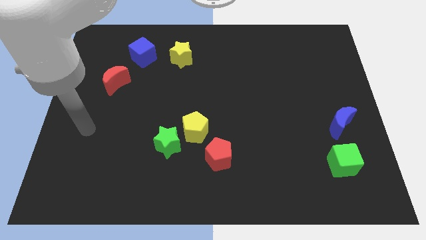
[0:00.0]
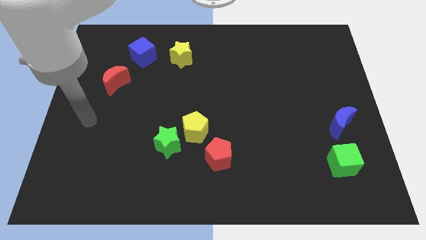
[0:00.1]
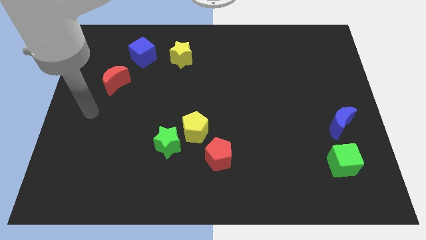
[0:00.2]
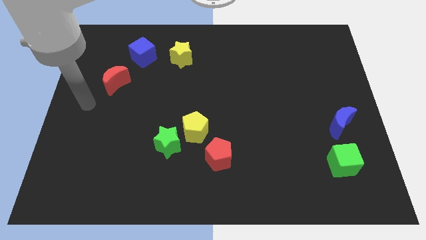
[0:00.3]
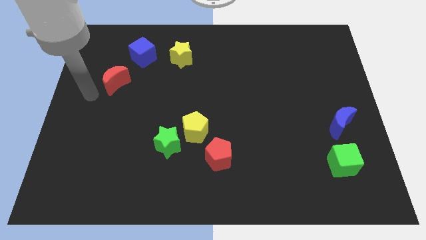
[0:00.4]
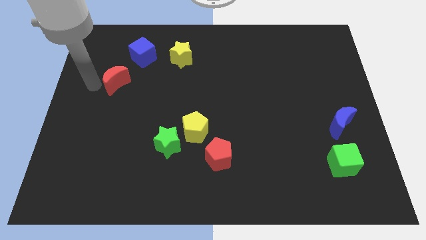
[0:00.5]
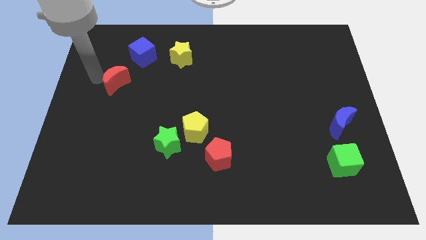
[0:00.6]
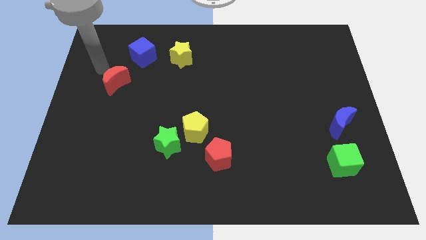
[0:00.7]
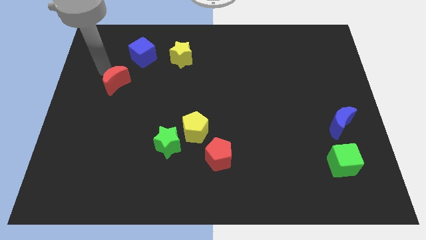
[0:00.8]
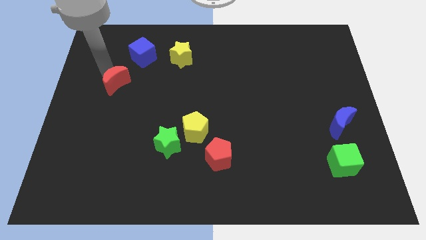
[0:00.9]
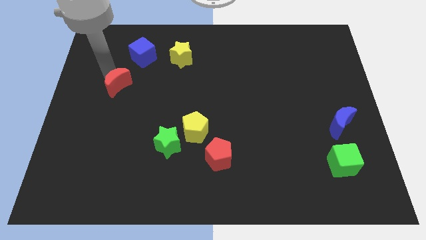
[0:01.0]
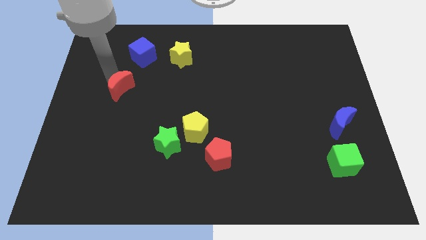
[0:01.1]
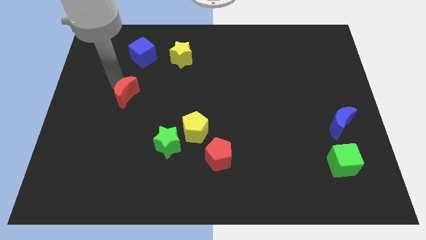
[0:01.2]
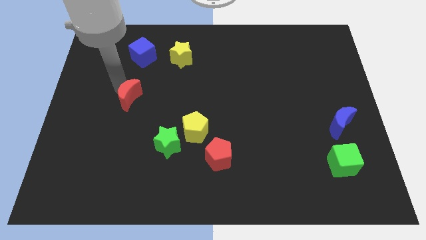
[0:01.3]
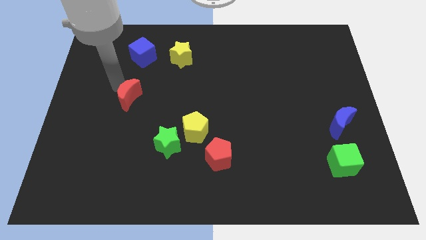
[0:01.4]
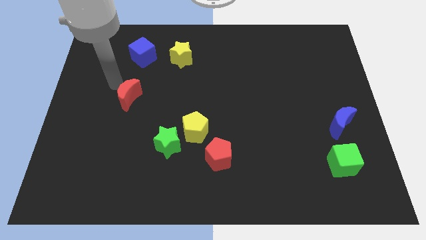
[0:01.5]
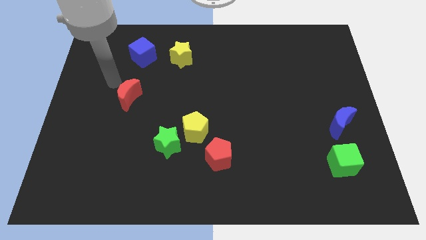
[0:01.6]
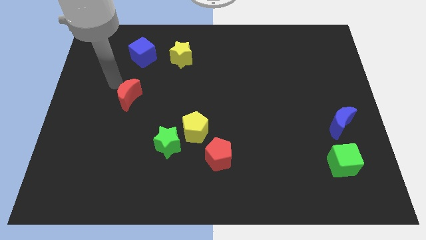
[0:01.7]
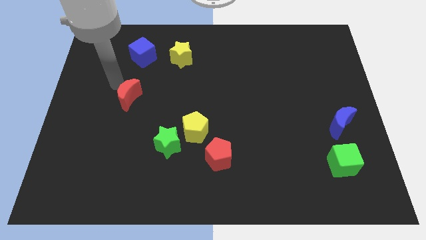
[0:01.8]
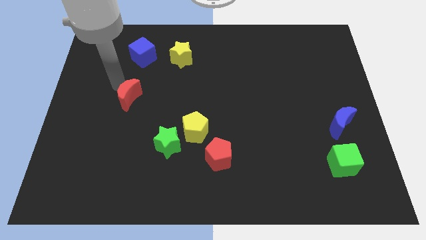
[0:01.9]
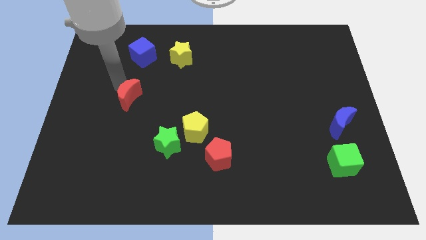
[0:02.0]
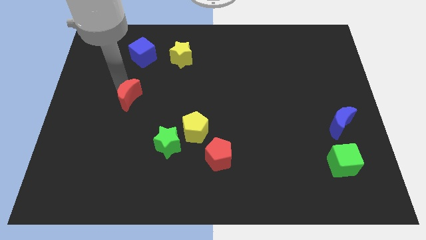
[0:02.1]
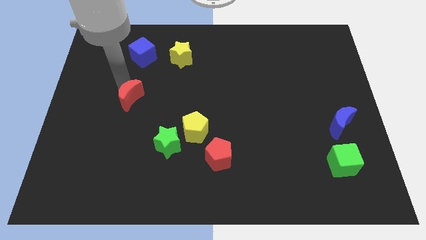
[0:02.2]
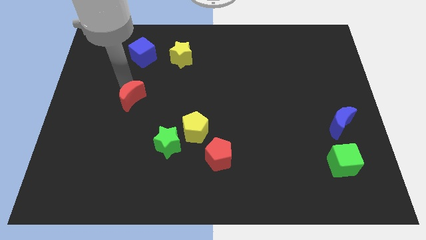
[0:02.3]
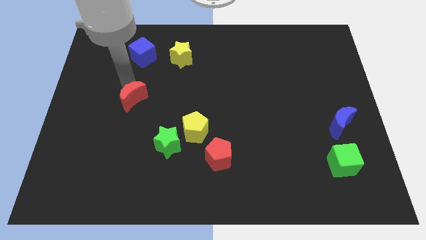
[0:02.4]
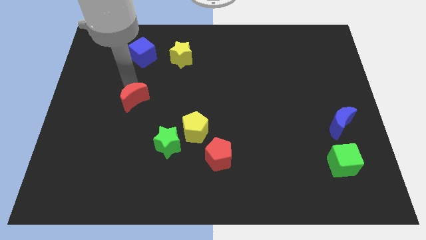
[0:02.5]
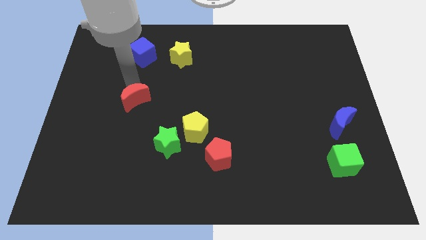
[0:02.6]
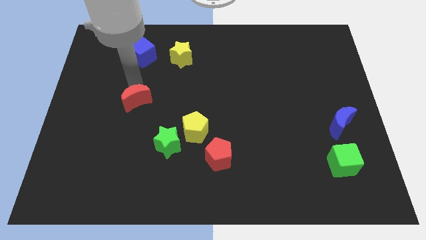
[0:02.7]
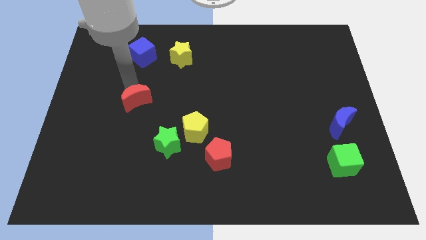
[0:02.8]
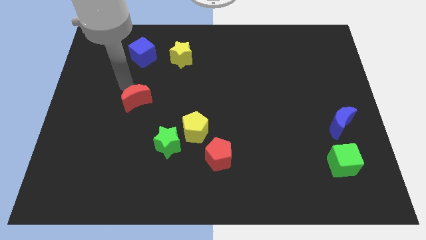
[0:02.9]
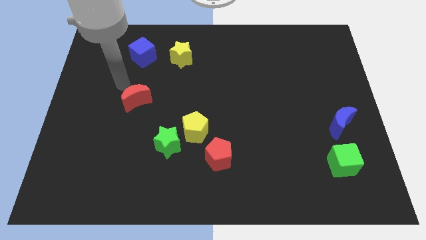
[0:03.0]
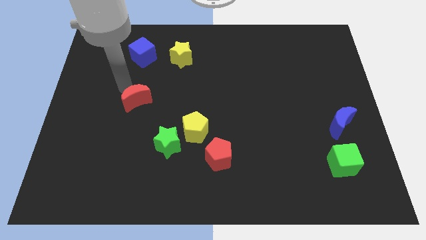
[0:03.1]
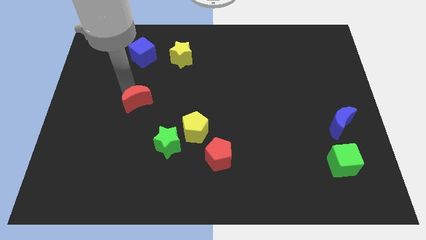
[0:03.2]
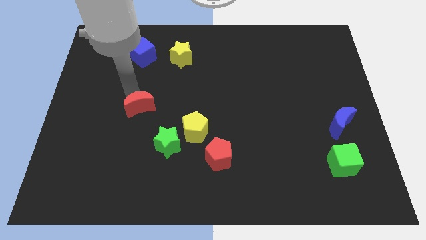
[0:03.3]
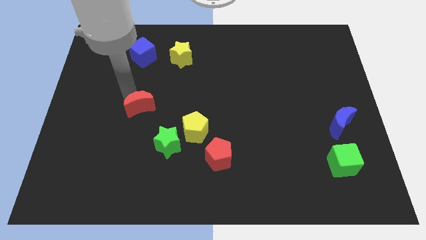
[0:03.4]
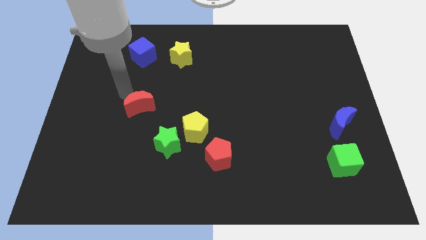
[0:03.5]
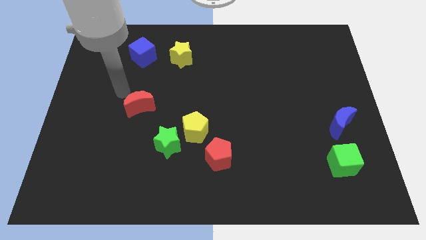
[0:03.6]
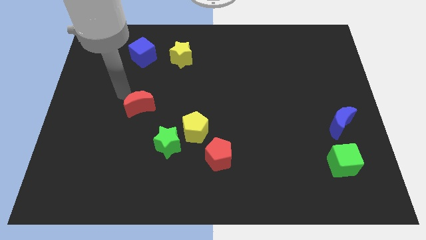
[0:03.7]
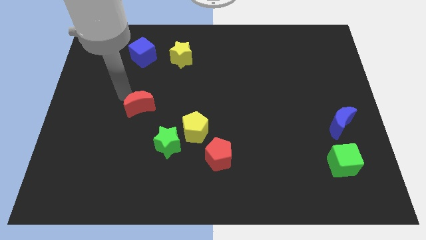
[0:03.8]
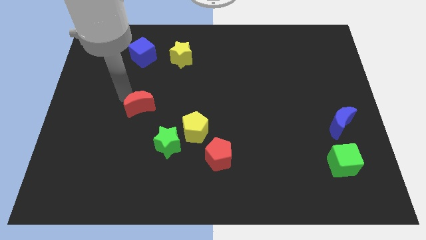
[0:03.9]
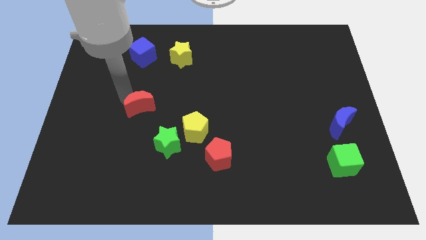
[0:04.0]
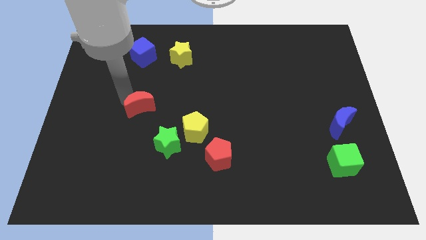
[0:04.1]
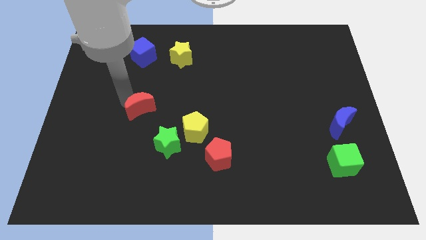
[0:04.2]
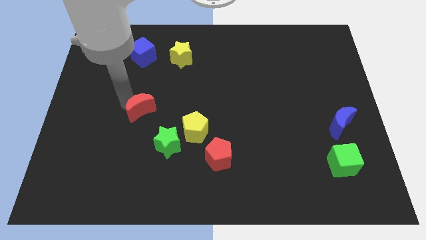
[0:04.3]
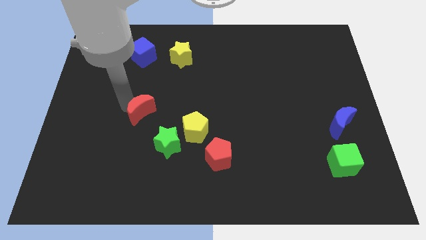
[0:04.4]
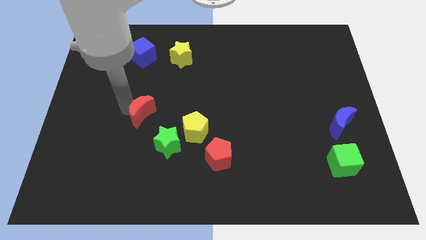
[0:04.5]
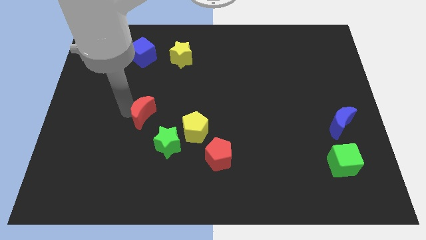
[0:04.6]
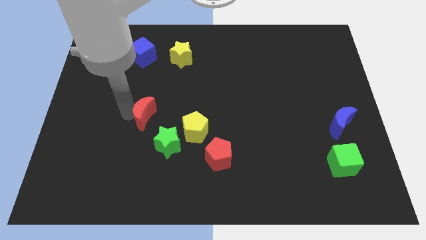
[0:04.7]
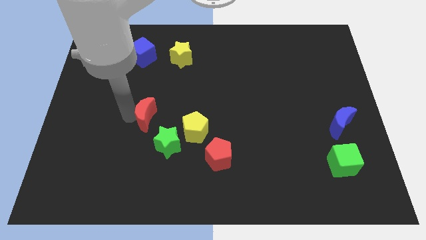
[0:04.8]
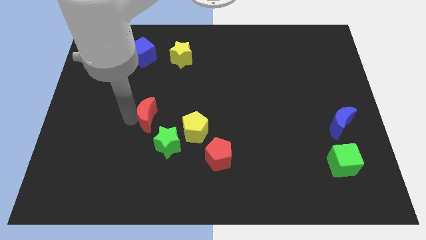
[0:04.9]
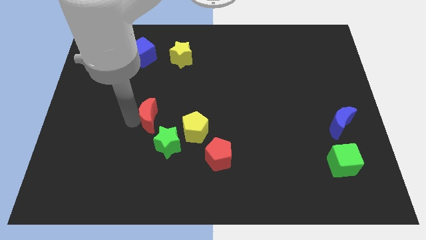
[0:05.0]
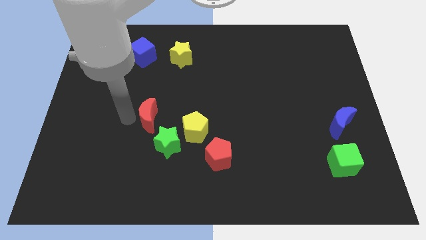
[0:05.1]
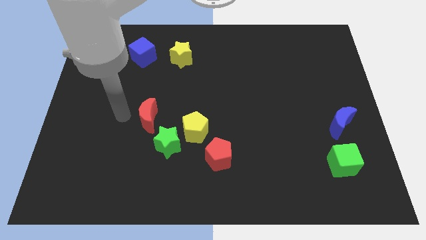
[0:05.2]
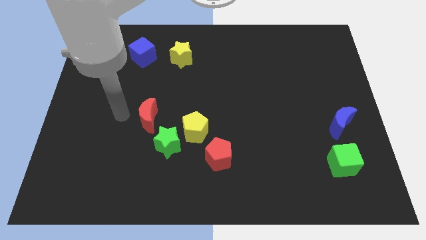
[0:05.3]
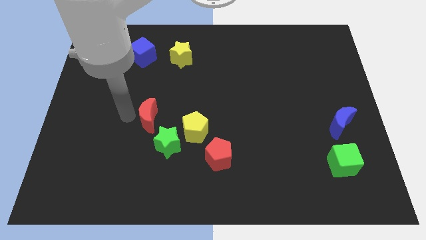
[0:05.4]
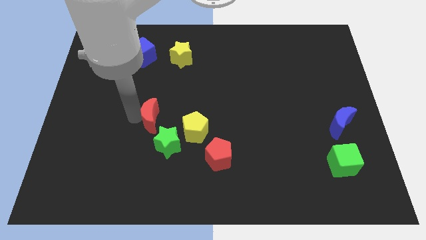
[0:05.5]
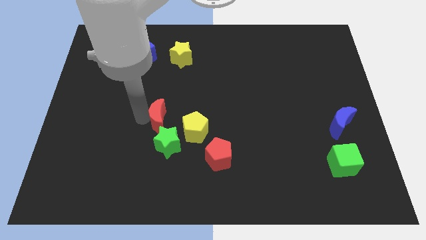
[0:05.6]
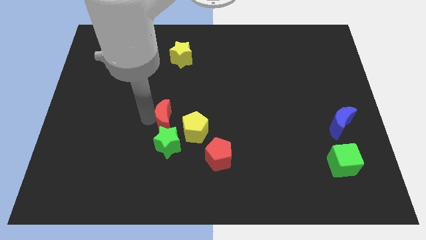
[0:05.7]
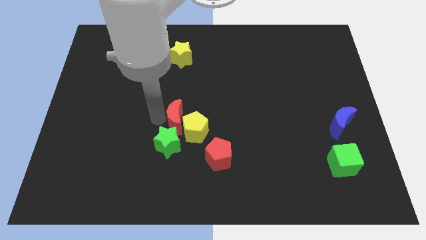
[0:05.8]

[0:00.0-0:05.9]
slide the red moon close to the yellow pentagon

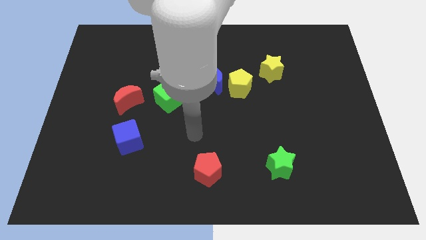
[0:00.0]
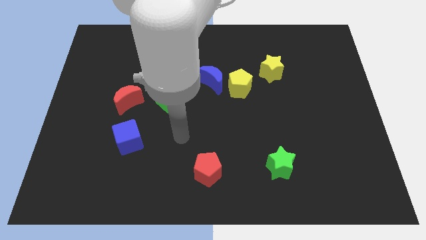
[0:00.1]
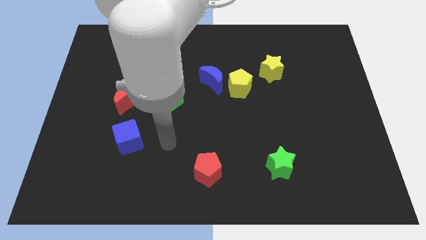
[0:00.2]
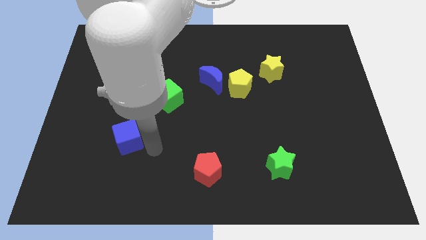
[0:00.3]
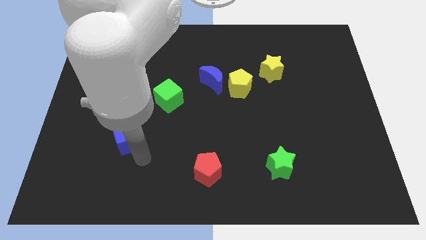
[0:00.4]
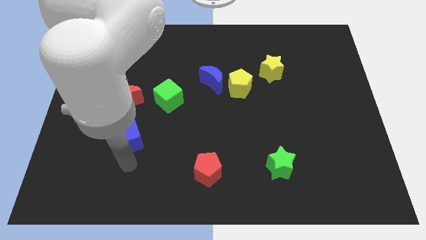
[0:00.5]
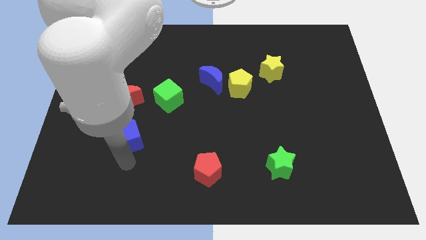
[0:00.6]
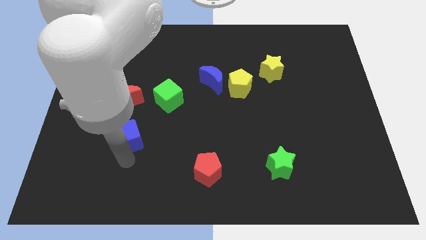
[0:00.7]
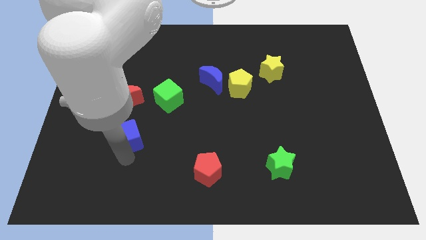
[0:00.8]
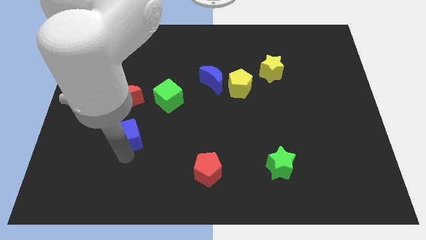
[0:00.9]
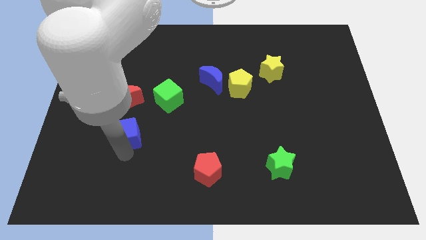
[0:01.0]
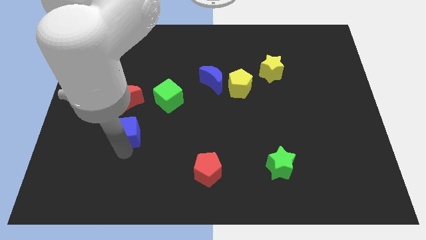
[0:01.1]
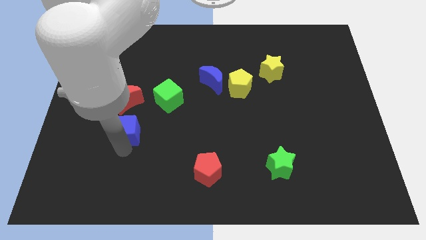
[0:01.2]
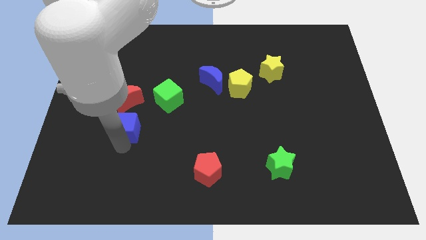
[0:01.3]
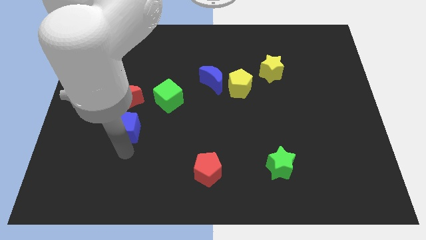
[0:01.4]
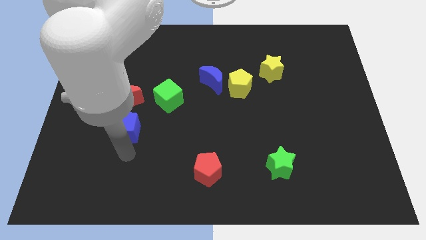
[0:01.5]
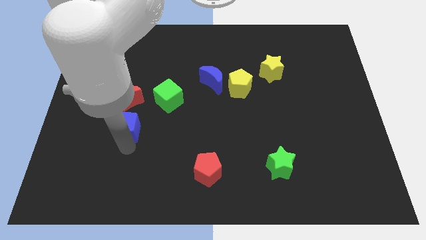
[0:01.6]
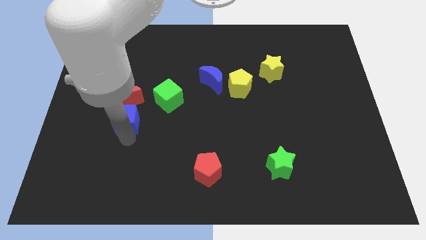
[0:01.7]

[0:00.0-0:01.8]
move the blue cube close to the red moon
